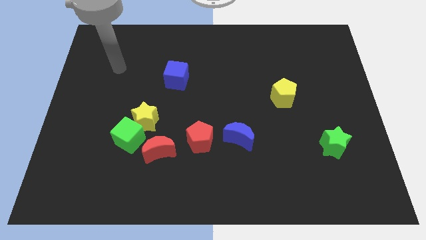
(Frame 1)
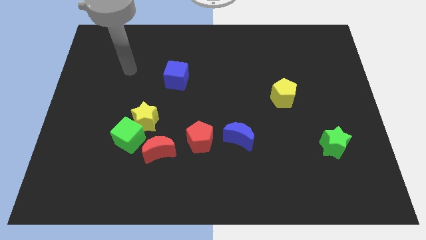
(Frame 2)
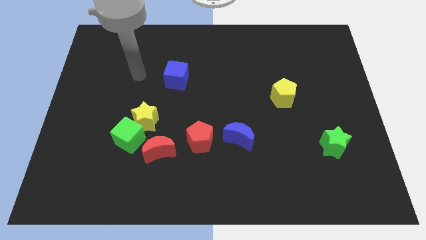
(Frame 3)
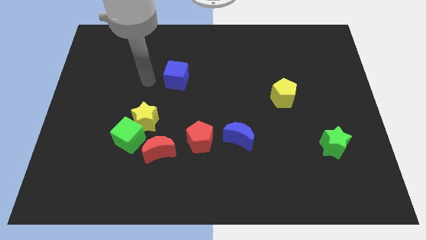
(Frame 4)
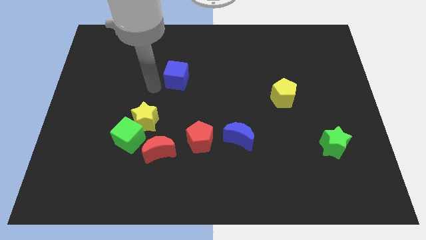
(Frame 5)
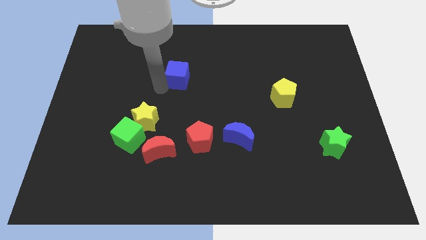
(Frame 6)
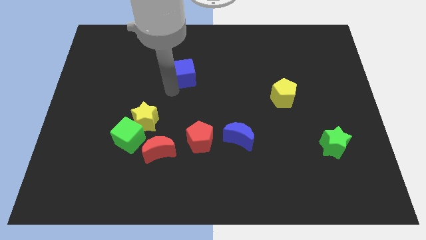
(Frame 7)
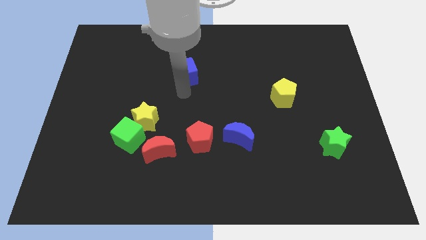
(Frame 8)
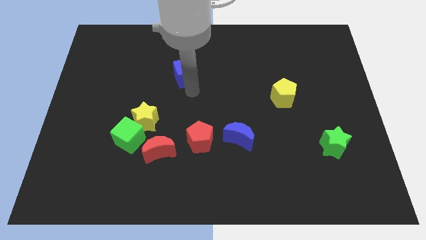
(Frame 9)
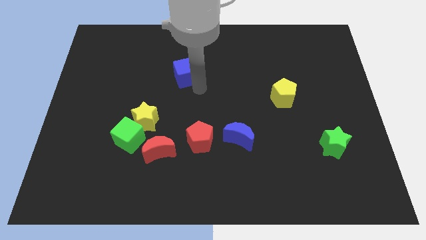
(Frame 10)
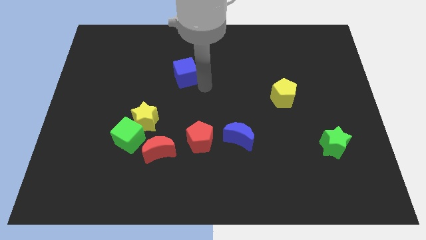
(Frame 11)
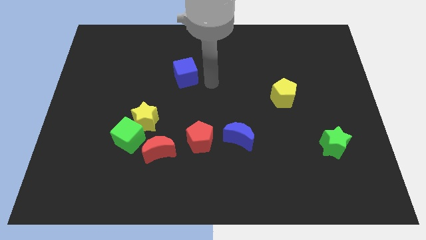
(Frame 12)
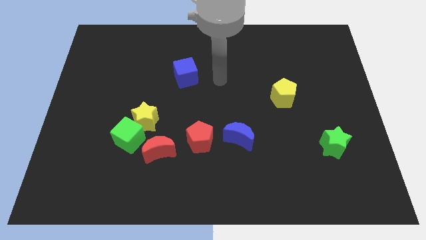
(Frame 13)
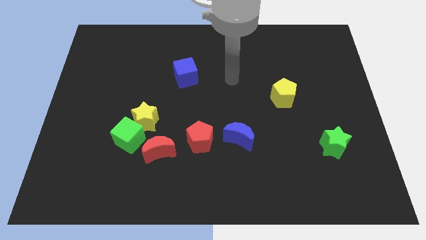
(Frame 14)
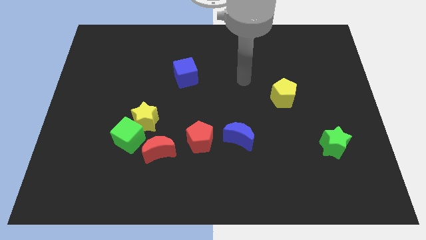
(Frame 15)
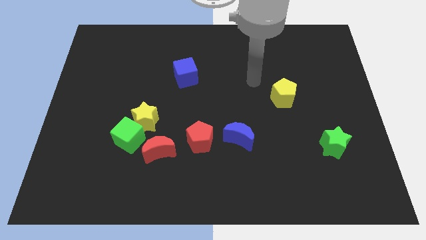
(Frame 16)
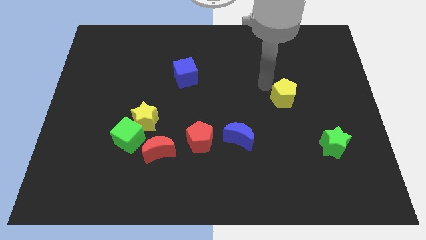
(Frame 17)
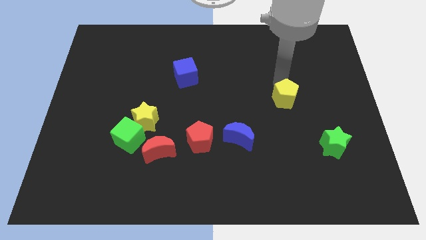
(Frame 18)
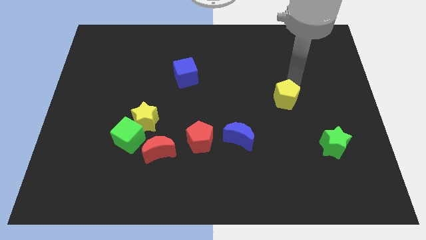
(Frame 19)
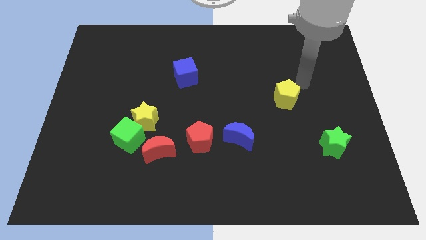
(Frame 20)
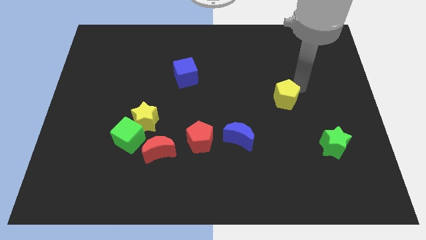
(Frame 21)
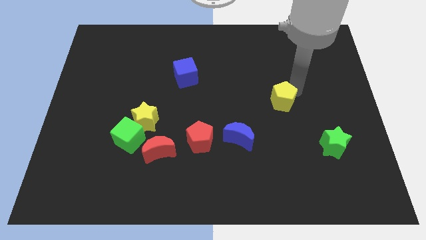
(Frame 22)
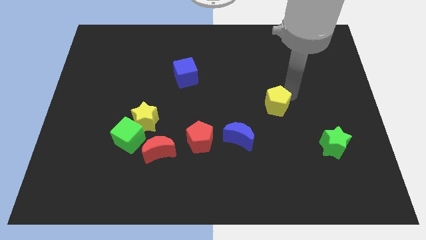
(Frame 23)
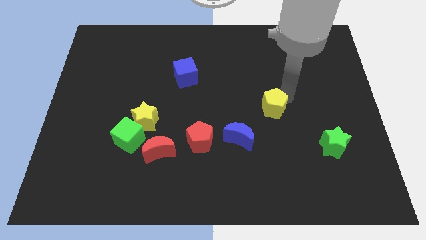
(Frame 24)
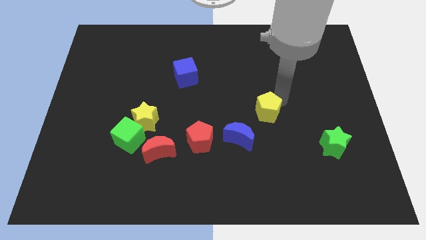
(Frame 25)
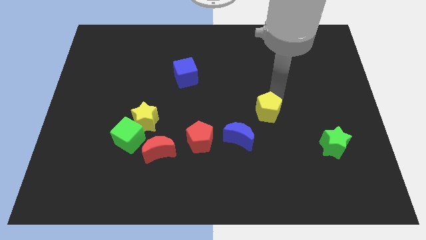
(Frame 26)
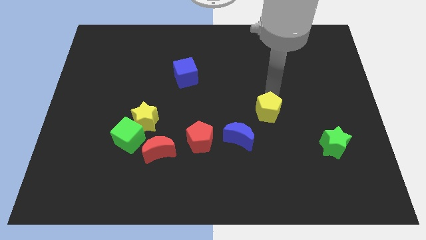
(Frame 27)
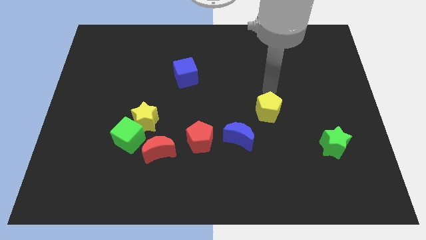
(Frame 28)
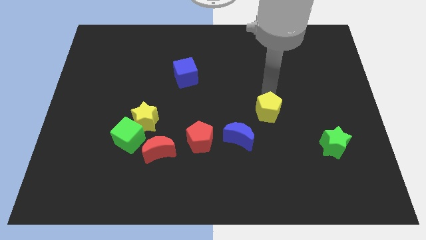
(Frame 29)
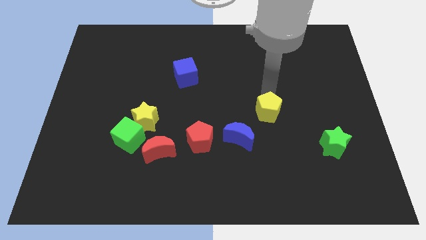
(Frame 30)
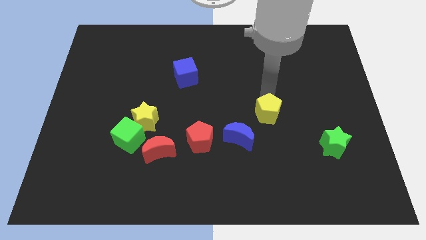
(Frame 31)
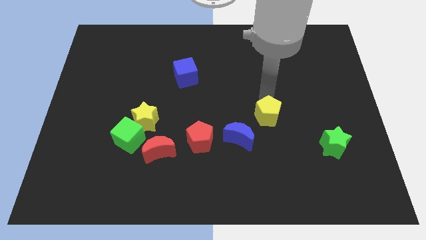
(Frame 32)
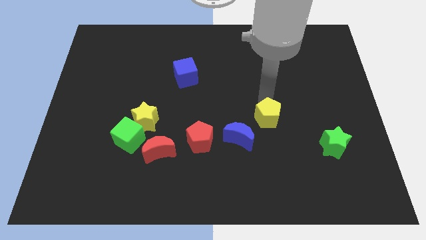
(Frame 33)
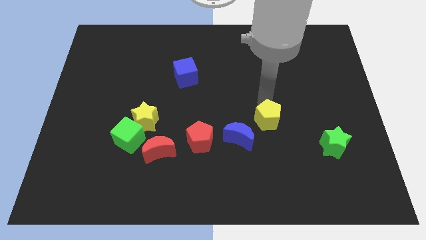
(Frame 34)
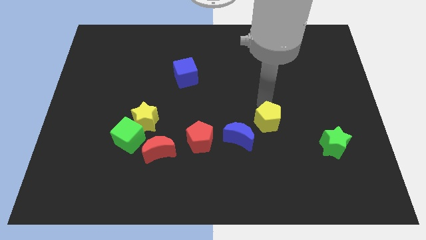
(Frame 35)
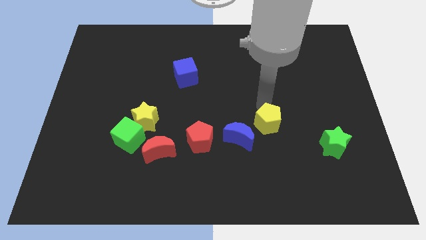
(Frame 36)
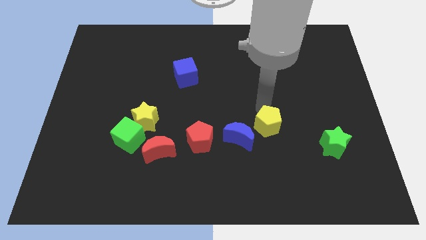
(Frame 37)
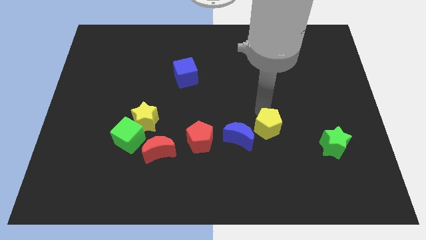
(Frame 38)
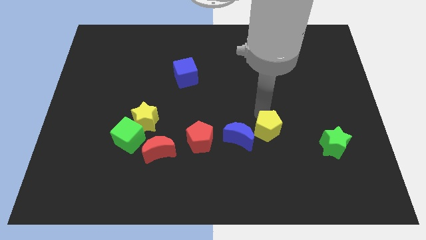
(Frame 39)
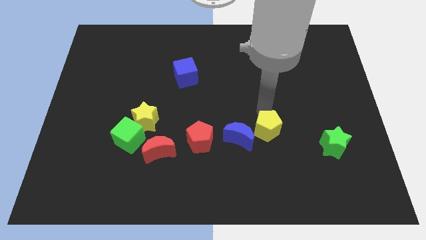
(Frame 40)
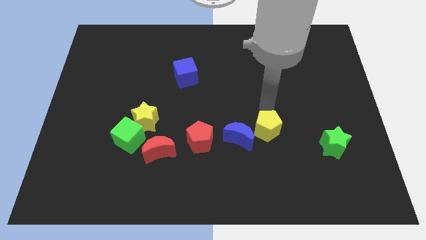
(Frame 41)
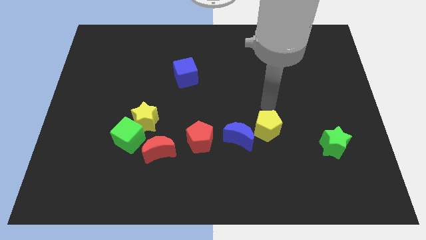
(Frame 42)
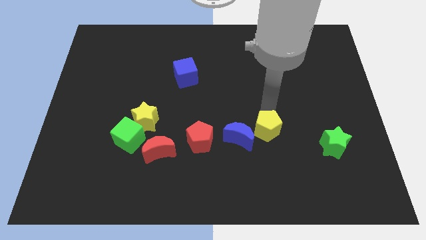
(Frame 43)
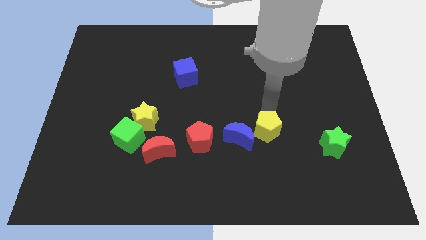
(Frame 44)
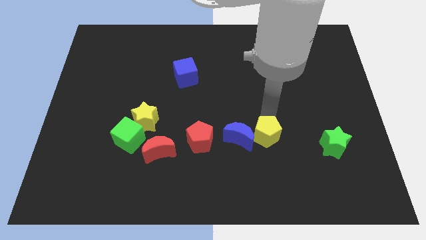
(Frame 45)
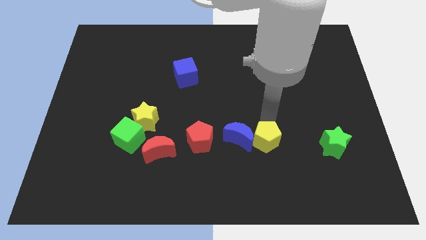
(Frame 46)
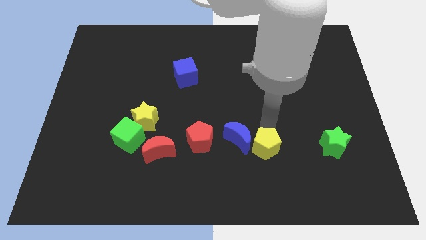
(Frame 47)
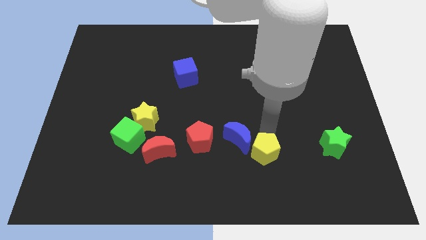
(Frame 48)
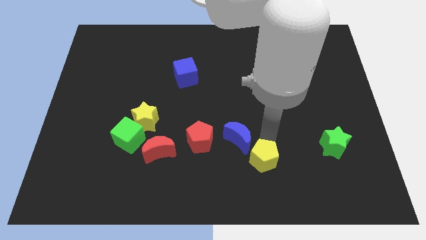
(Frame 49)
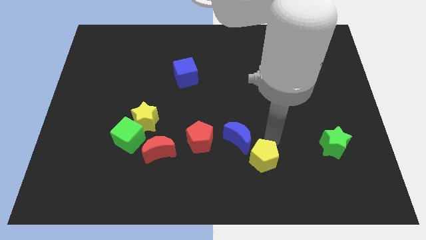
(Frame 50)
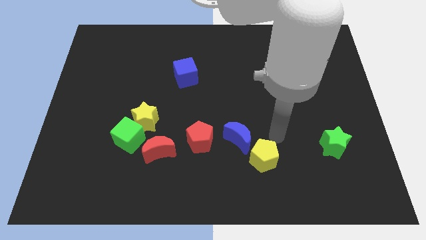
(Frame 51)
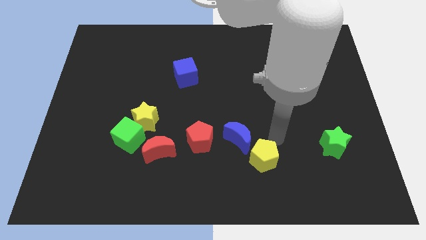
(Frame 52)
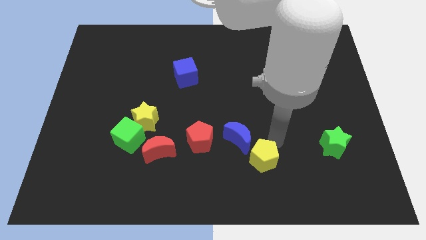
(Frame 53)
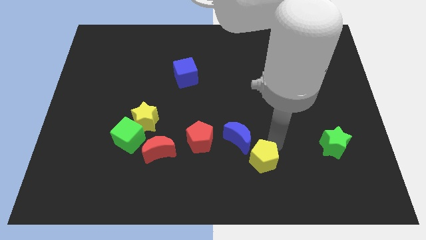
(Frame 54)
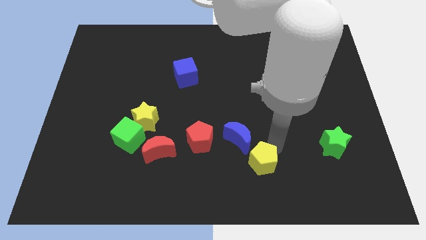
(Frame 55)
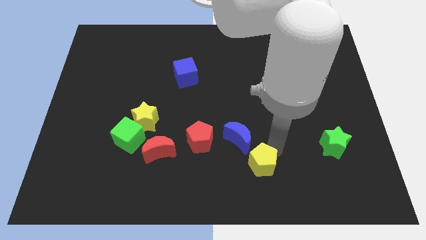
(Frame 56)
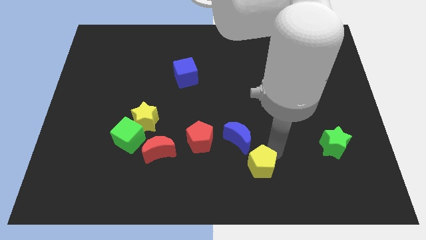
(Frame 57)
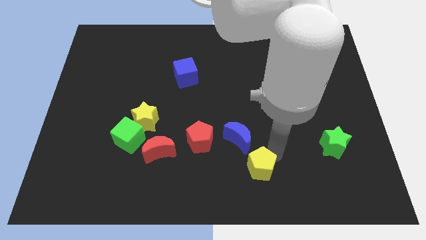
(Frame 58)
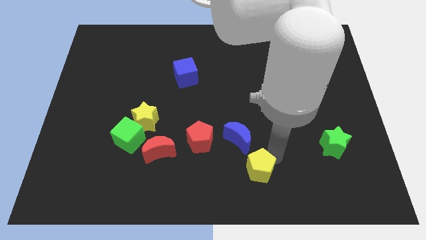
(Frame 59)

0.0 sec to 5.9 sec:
push the yellow pentagon to the bottom side

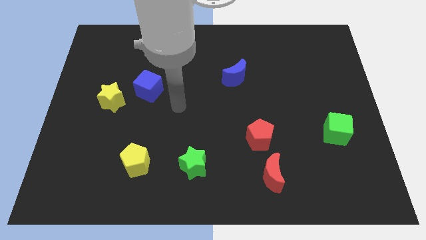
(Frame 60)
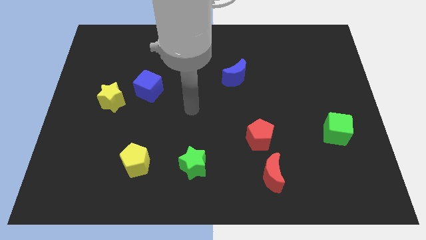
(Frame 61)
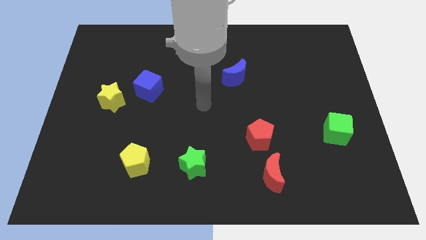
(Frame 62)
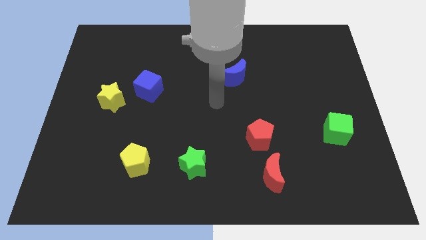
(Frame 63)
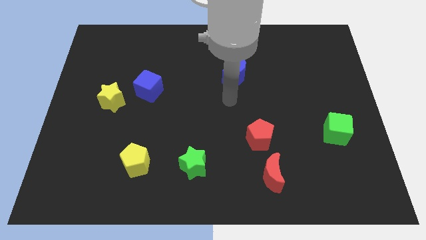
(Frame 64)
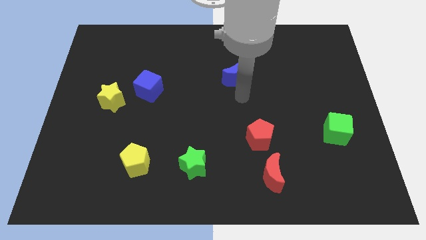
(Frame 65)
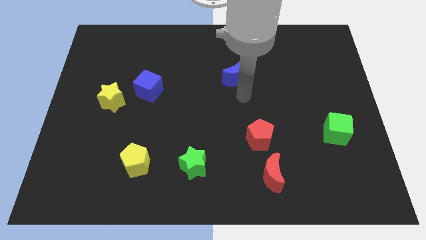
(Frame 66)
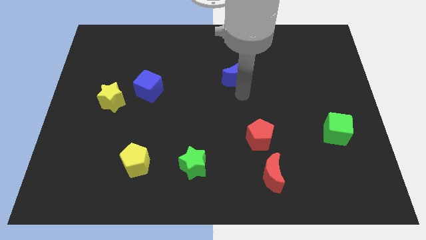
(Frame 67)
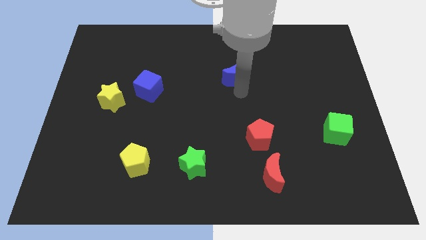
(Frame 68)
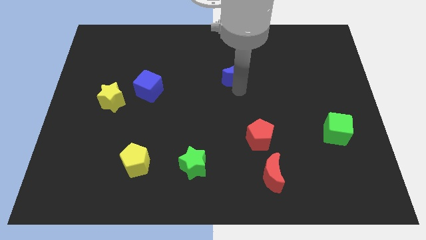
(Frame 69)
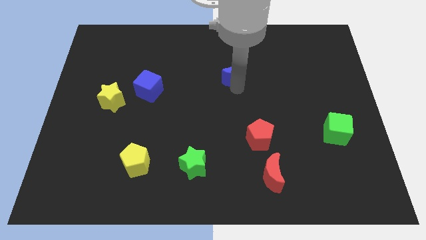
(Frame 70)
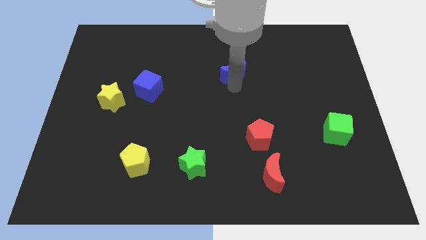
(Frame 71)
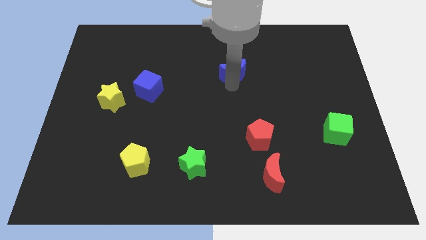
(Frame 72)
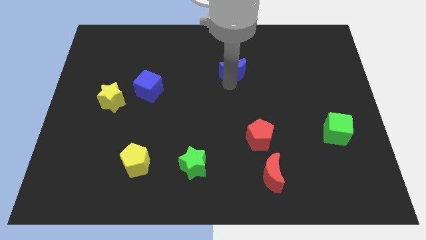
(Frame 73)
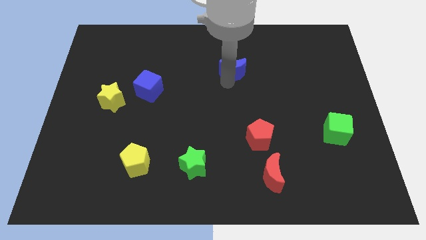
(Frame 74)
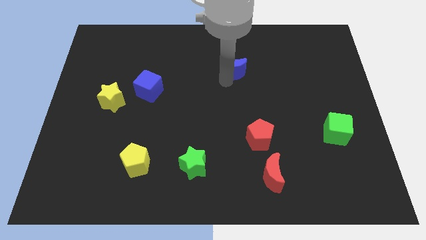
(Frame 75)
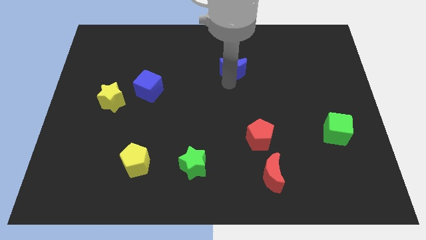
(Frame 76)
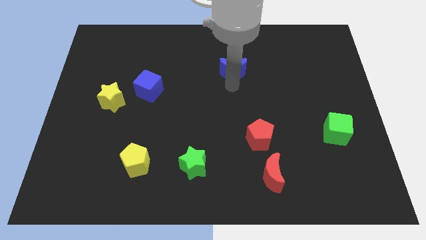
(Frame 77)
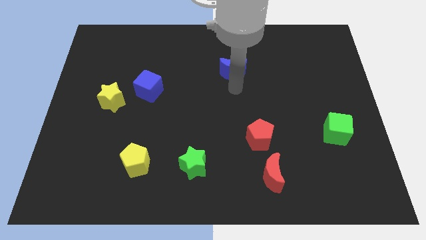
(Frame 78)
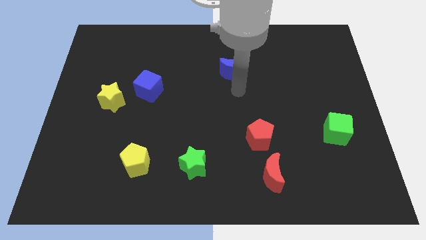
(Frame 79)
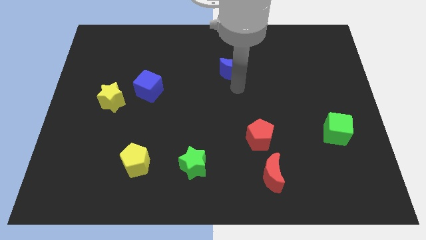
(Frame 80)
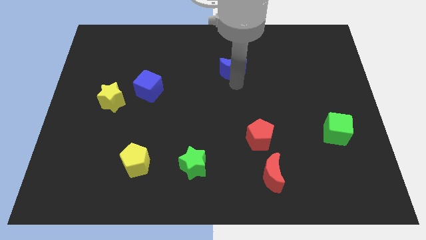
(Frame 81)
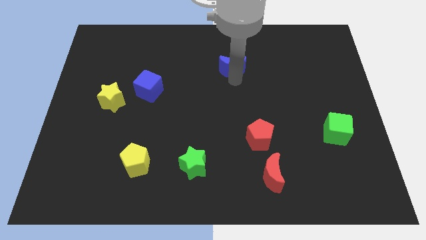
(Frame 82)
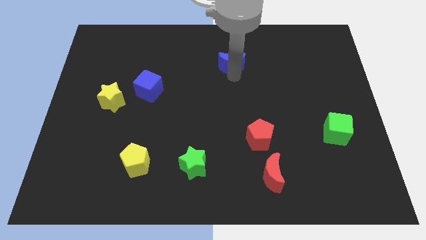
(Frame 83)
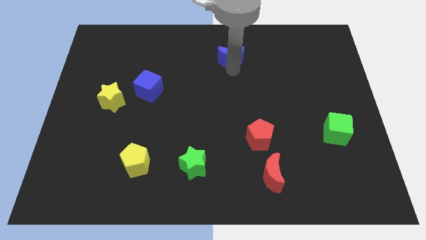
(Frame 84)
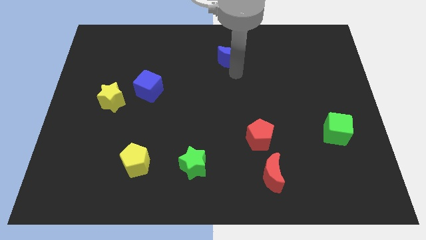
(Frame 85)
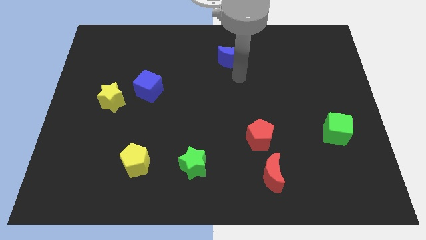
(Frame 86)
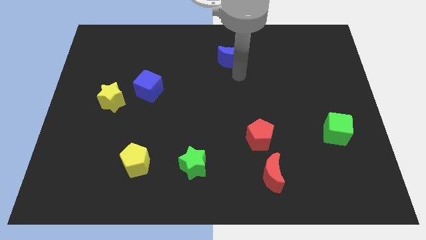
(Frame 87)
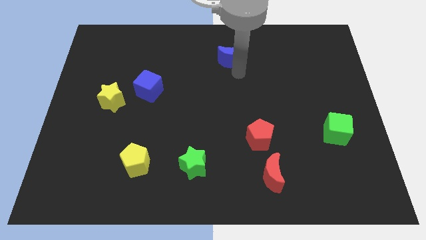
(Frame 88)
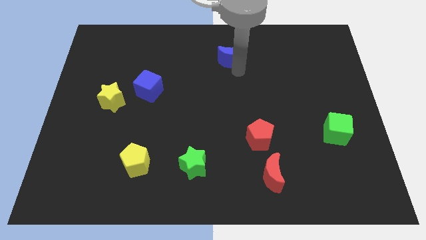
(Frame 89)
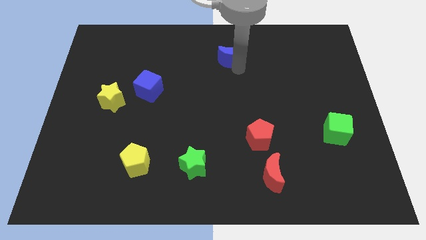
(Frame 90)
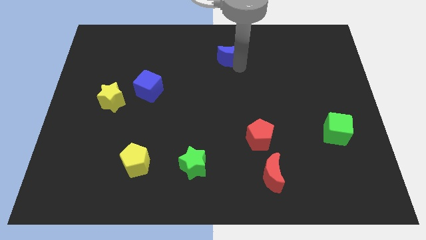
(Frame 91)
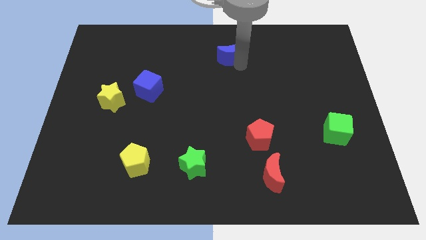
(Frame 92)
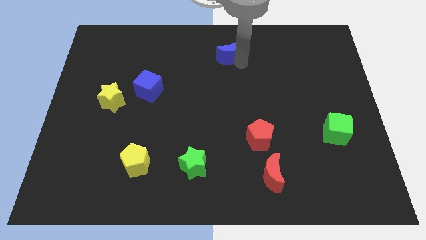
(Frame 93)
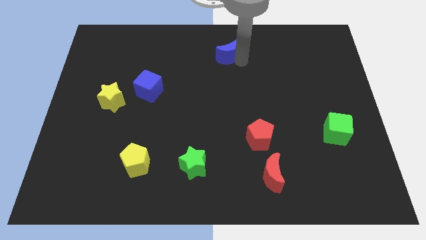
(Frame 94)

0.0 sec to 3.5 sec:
move the blue moon to the top side
